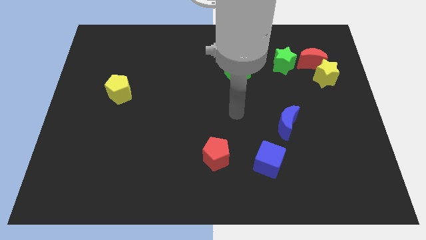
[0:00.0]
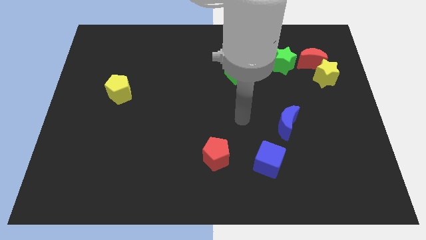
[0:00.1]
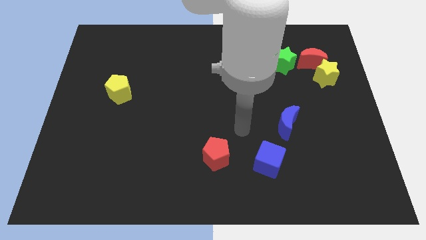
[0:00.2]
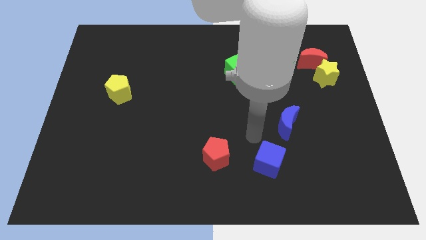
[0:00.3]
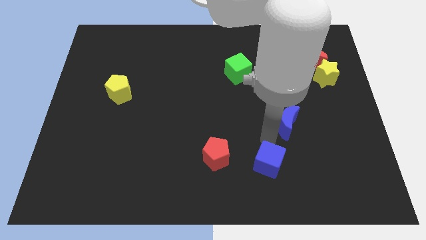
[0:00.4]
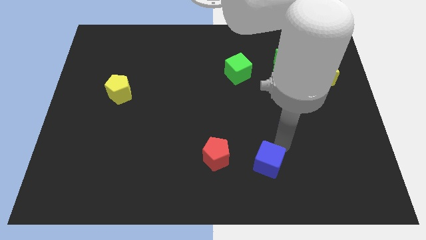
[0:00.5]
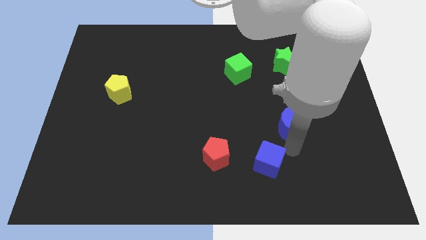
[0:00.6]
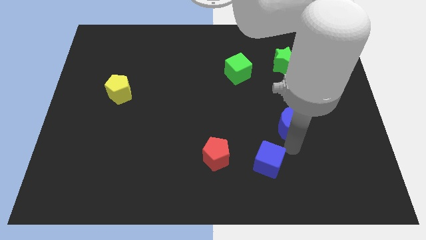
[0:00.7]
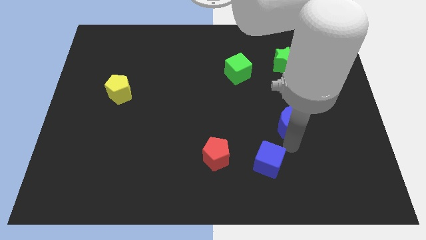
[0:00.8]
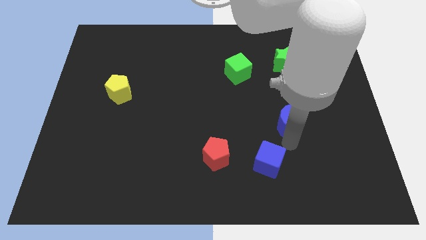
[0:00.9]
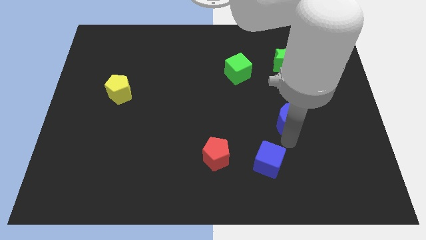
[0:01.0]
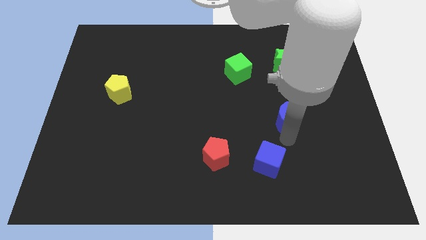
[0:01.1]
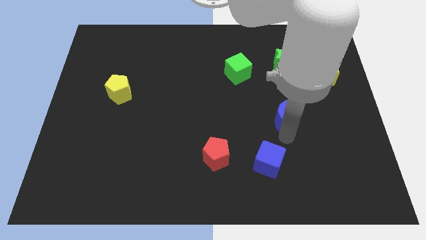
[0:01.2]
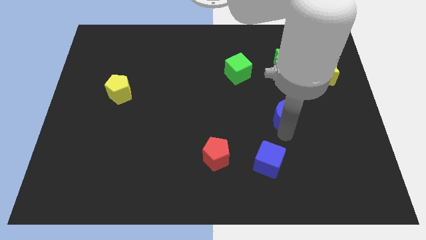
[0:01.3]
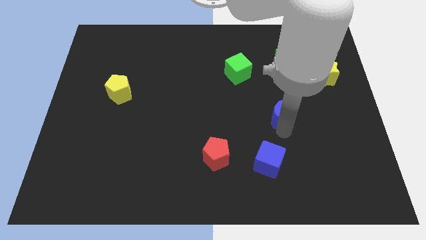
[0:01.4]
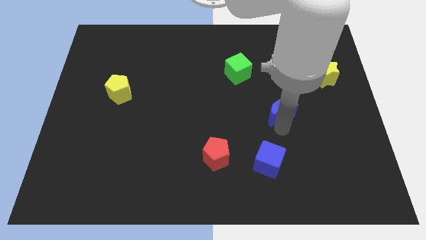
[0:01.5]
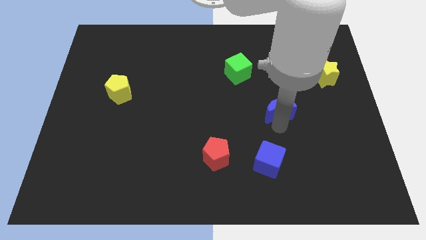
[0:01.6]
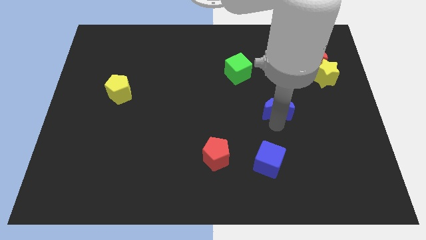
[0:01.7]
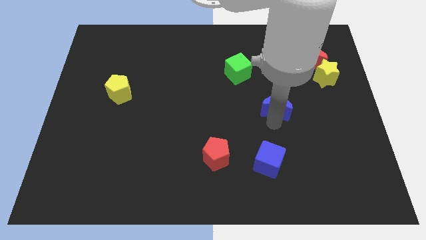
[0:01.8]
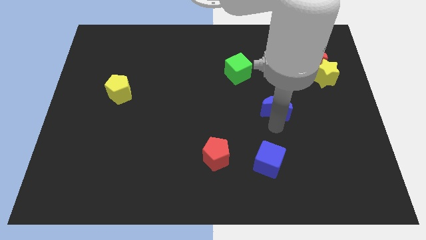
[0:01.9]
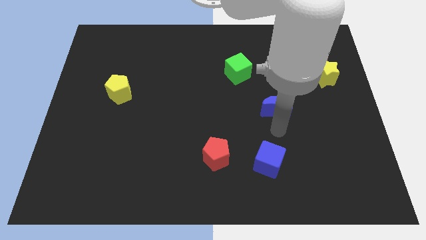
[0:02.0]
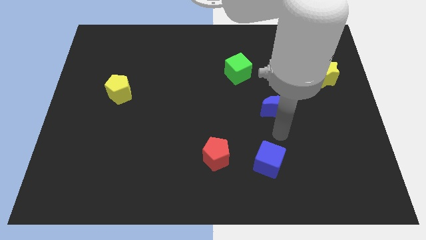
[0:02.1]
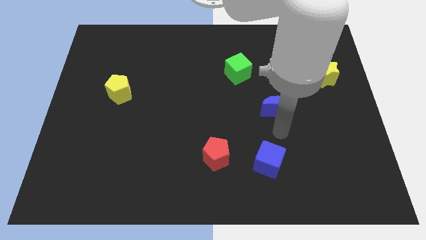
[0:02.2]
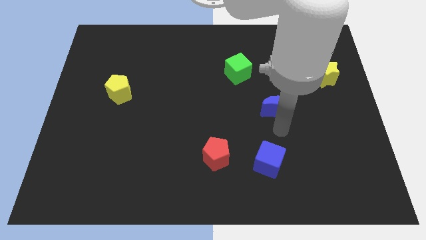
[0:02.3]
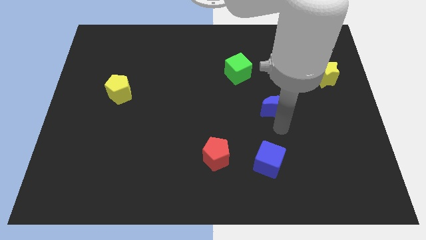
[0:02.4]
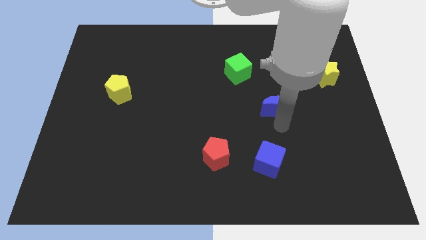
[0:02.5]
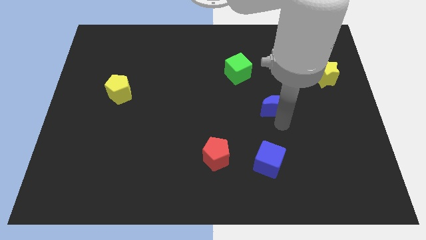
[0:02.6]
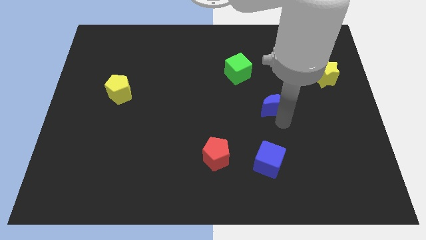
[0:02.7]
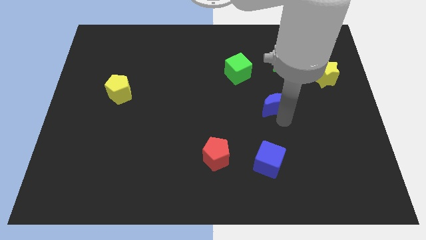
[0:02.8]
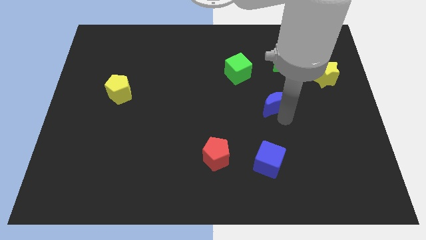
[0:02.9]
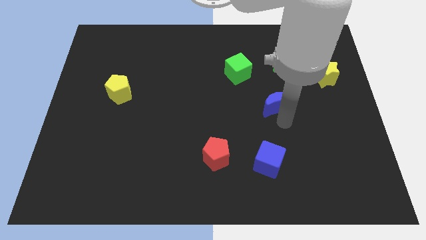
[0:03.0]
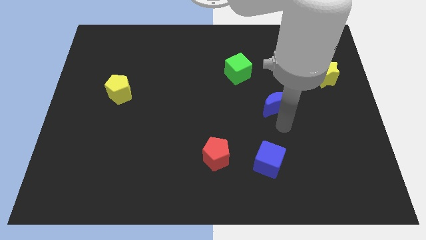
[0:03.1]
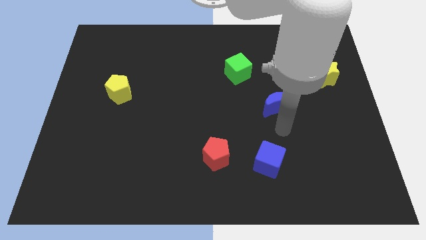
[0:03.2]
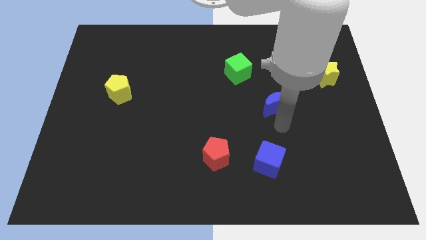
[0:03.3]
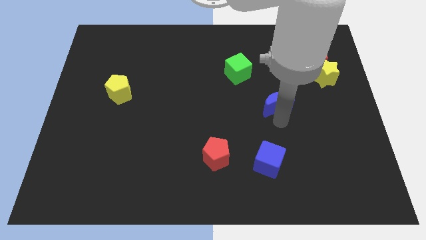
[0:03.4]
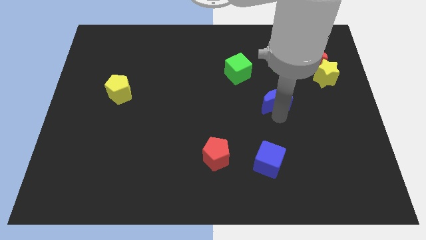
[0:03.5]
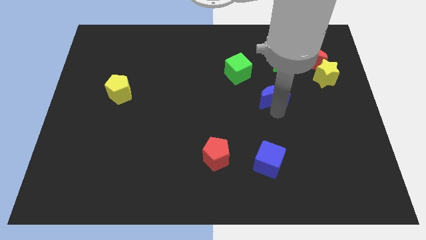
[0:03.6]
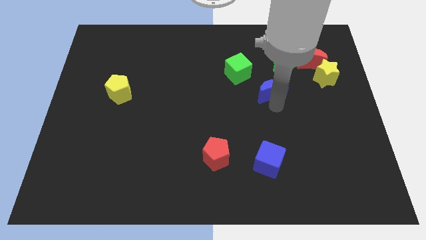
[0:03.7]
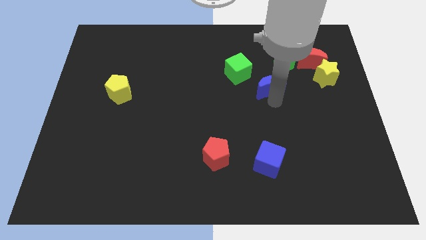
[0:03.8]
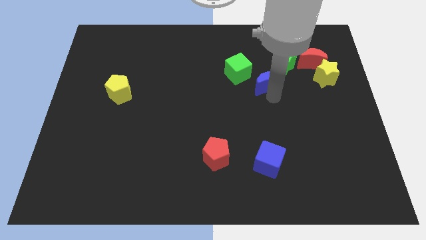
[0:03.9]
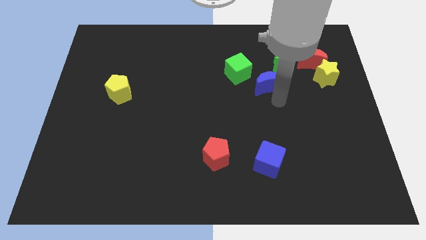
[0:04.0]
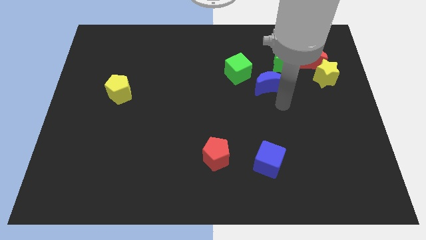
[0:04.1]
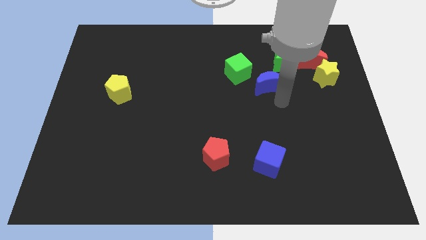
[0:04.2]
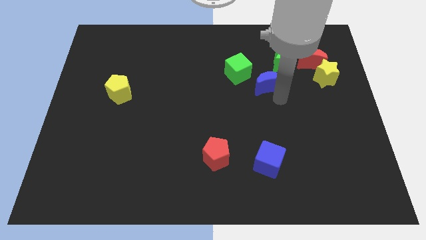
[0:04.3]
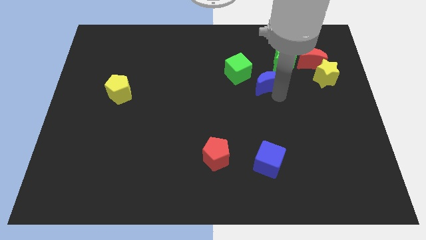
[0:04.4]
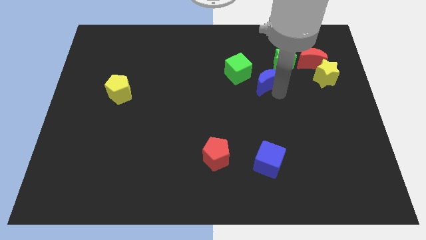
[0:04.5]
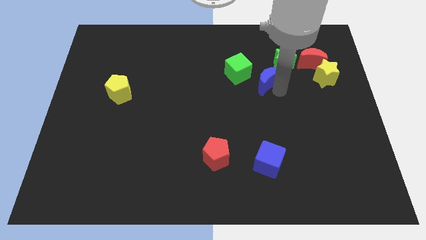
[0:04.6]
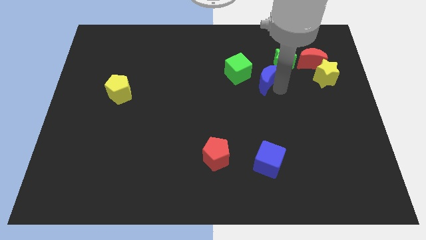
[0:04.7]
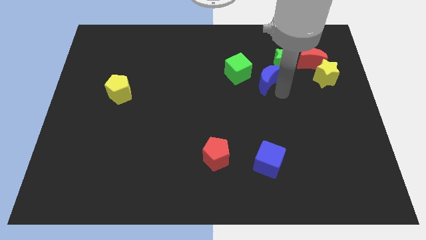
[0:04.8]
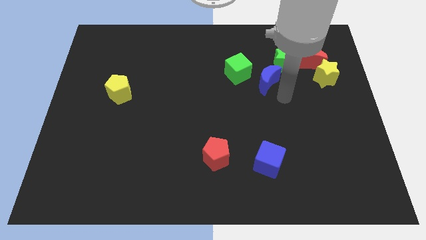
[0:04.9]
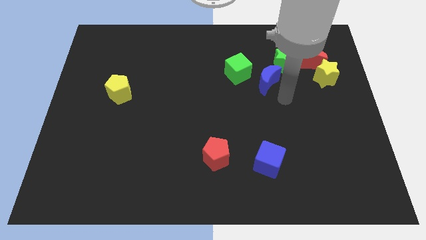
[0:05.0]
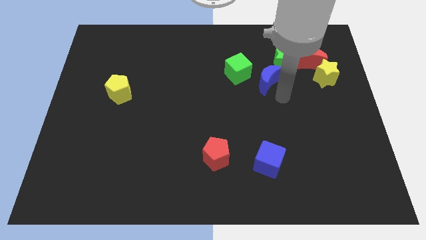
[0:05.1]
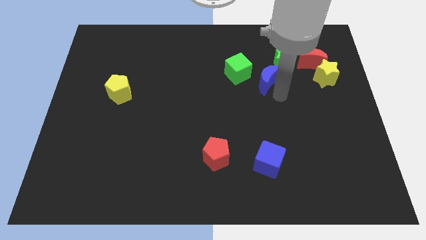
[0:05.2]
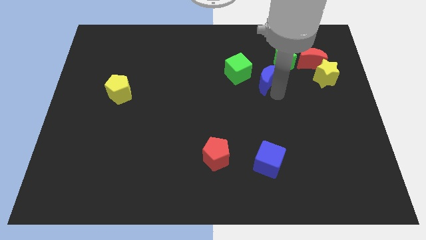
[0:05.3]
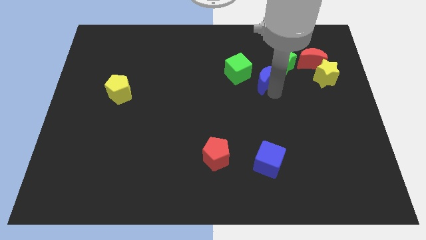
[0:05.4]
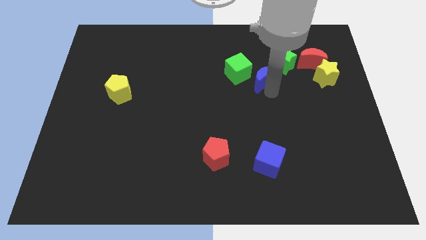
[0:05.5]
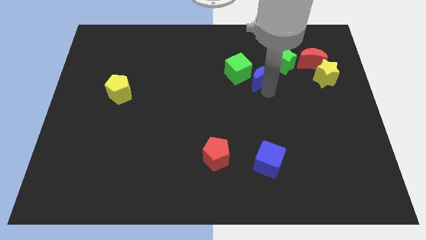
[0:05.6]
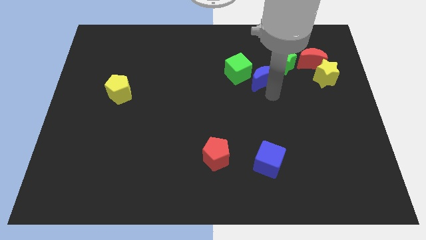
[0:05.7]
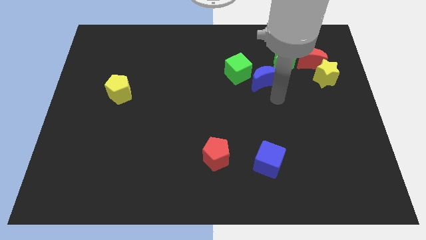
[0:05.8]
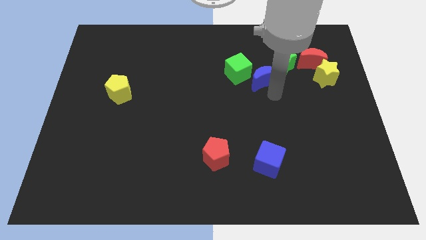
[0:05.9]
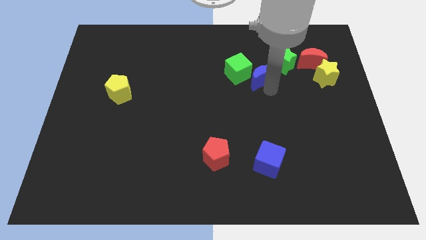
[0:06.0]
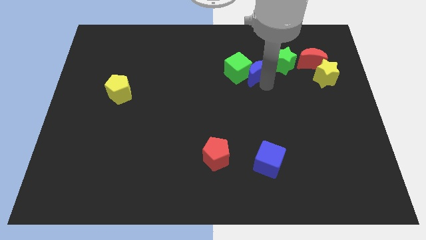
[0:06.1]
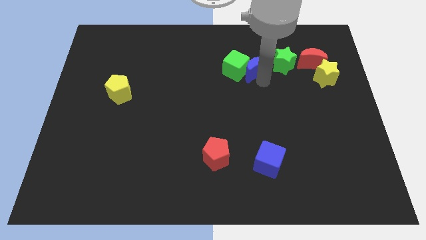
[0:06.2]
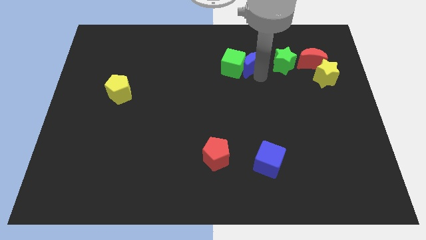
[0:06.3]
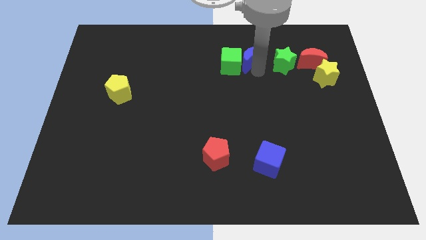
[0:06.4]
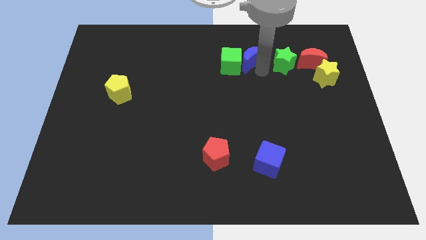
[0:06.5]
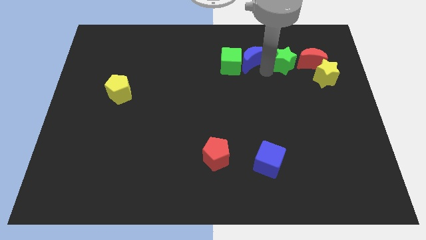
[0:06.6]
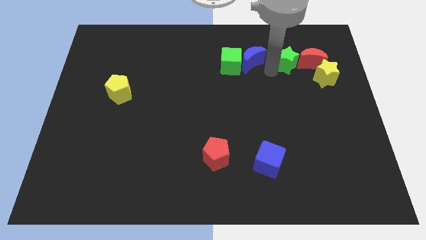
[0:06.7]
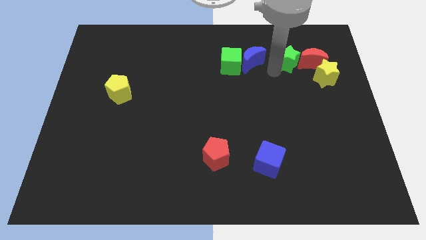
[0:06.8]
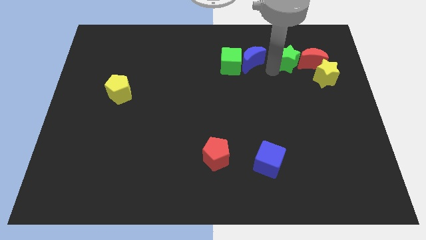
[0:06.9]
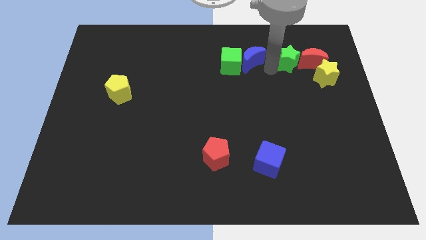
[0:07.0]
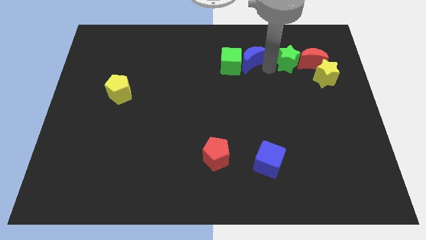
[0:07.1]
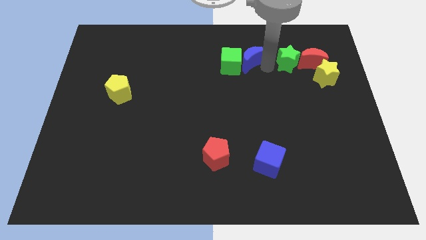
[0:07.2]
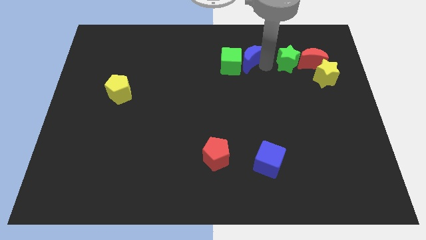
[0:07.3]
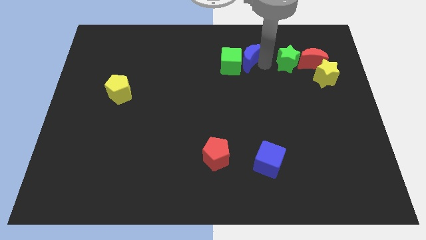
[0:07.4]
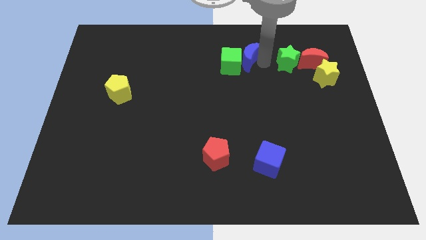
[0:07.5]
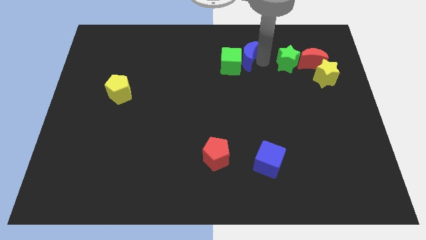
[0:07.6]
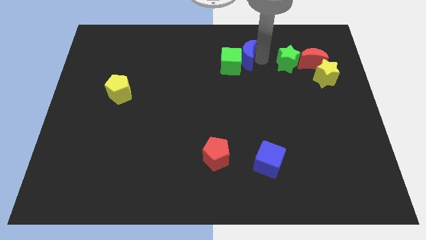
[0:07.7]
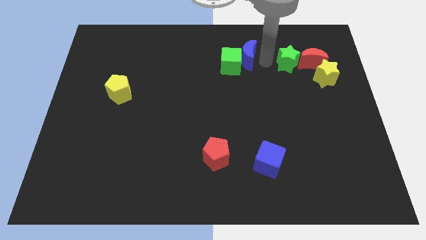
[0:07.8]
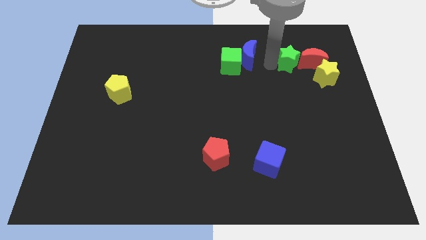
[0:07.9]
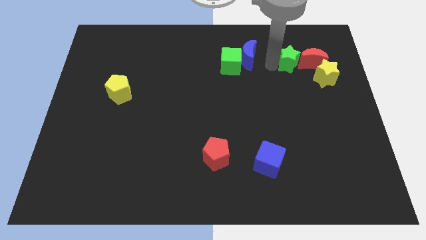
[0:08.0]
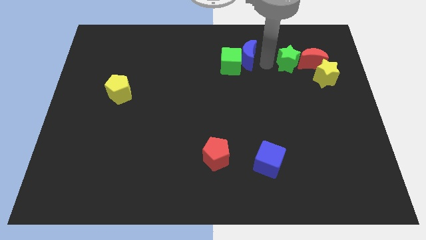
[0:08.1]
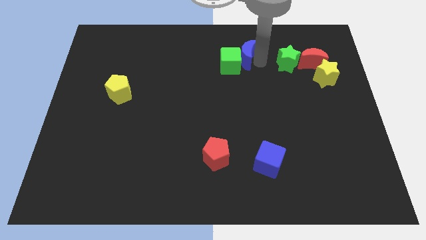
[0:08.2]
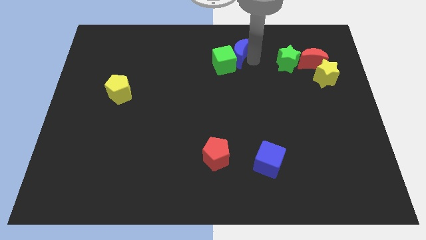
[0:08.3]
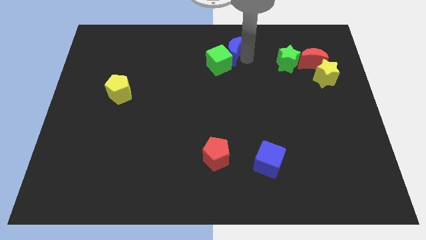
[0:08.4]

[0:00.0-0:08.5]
push the blue moon to the top
